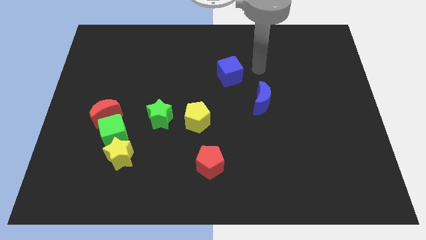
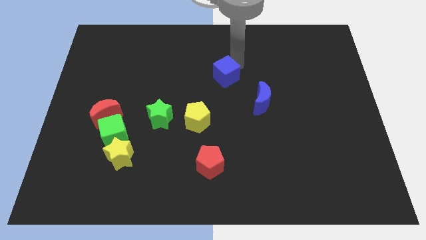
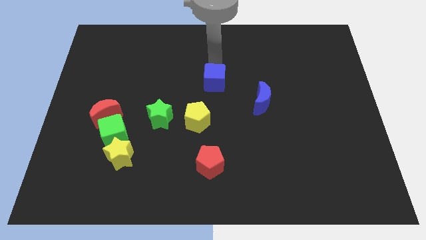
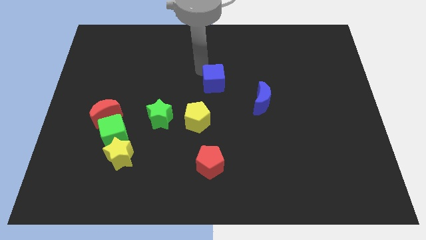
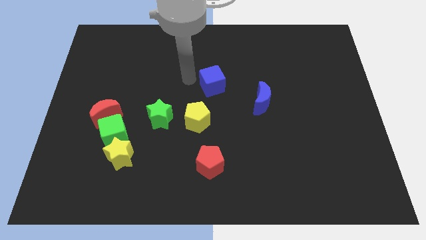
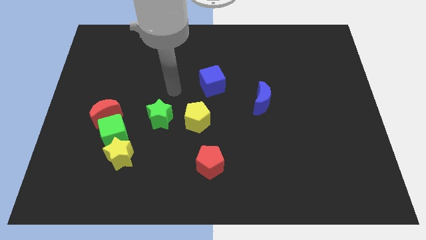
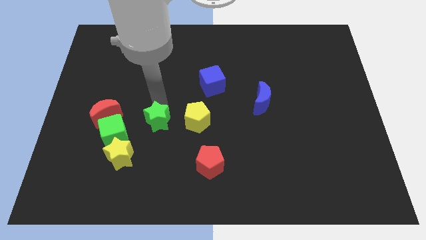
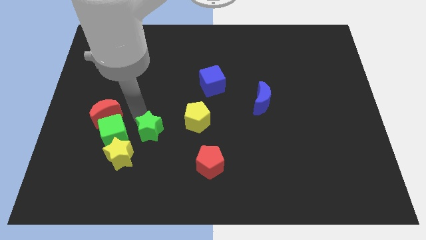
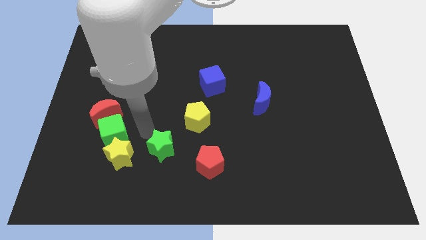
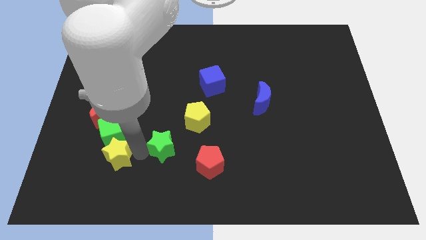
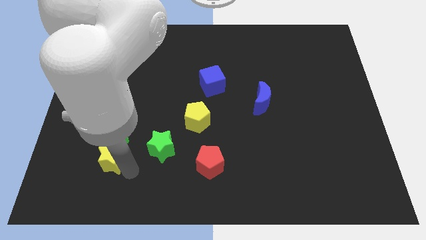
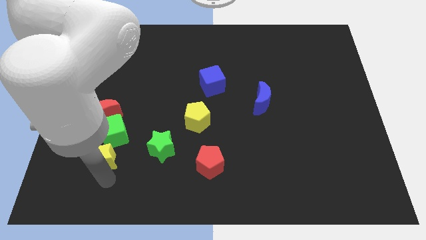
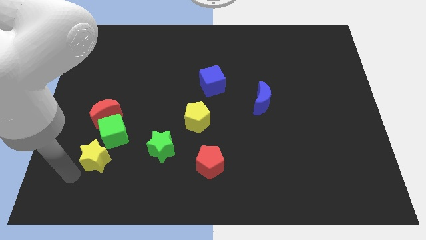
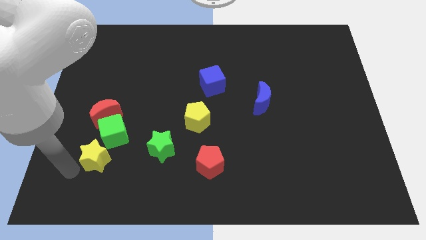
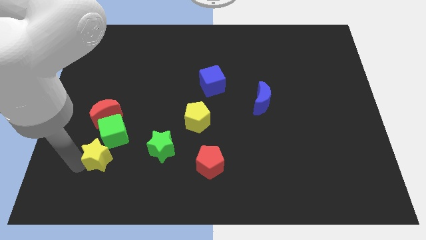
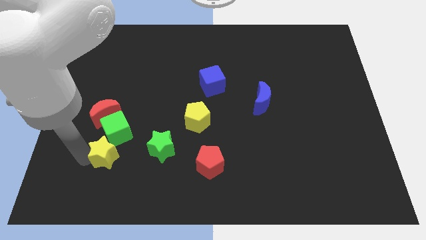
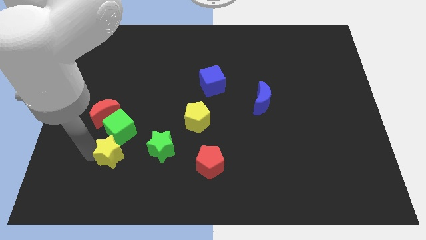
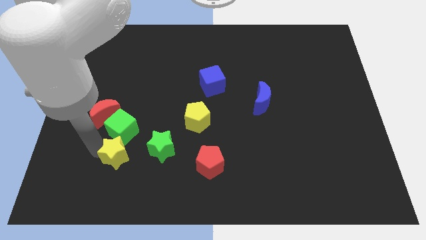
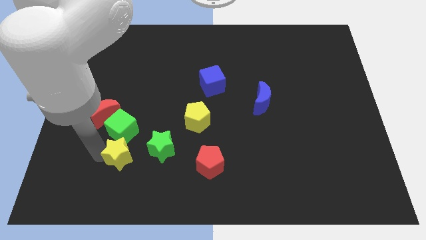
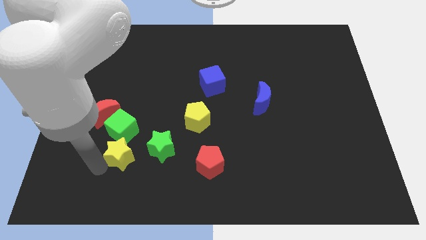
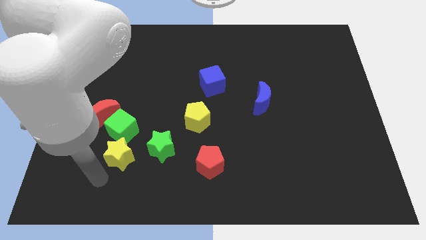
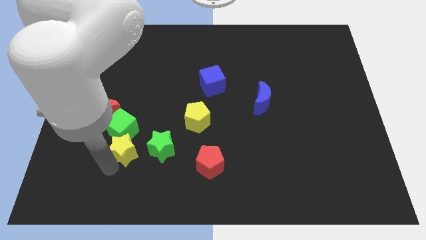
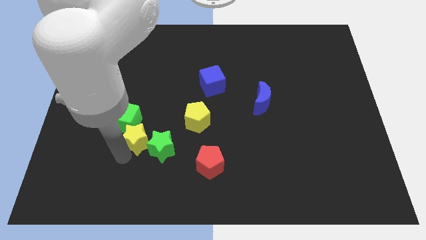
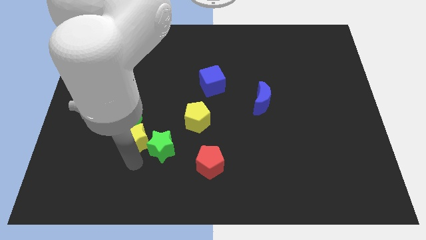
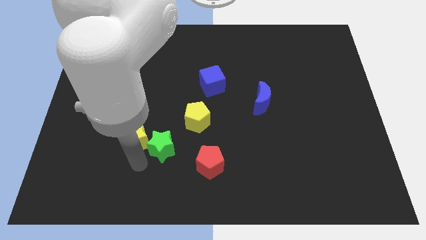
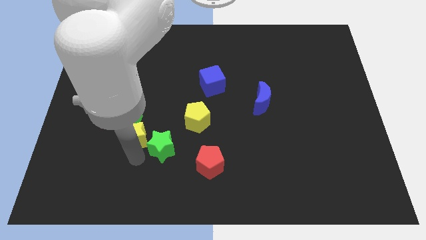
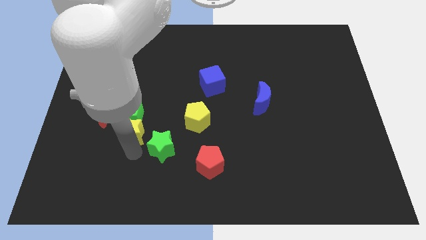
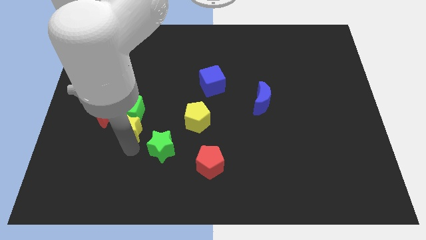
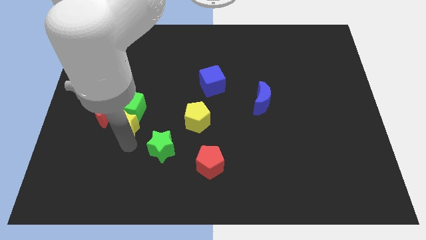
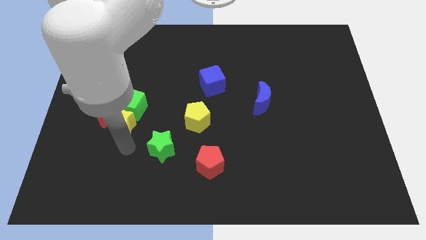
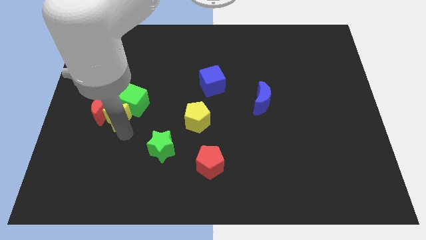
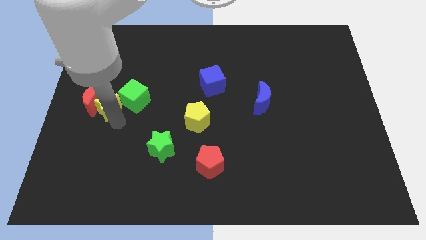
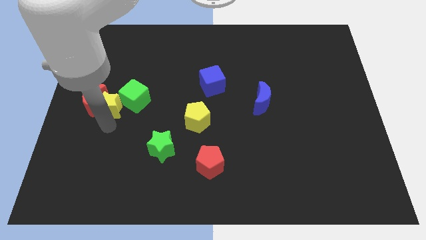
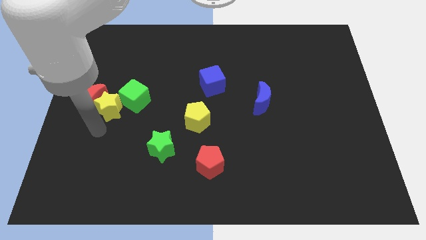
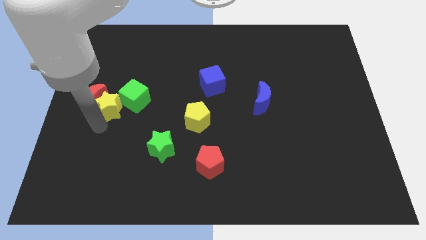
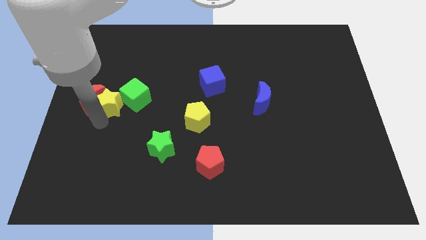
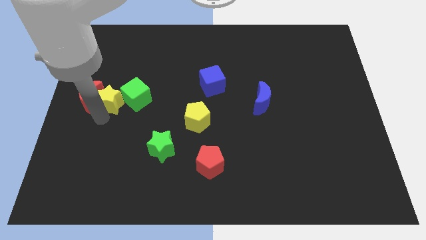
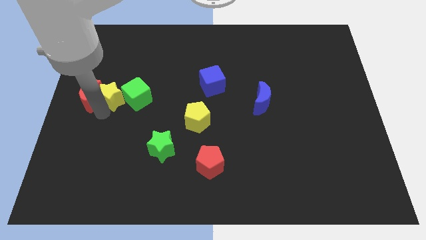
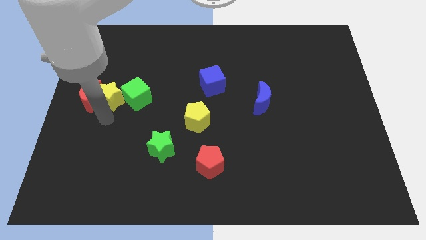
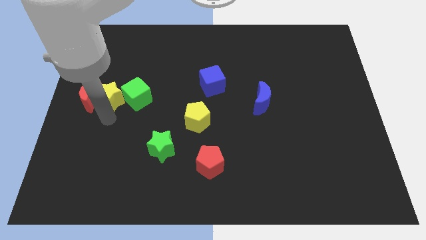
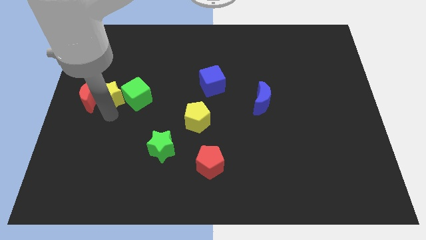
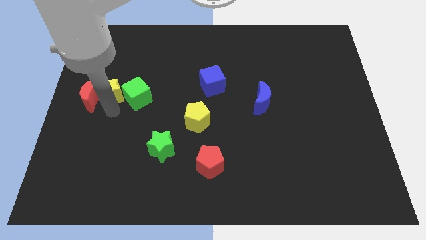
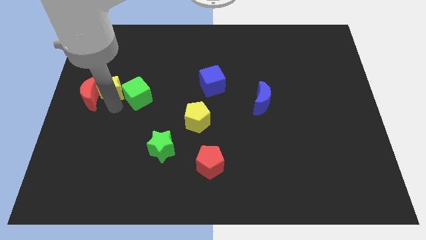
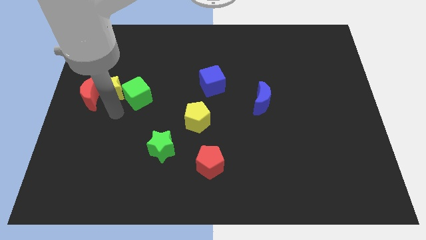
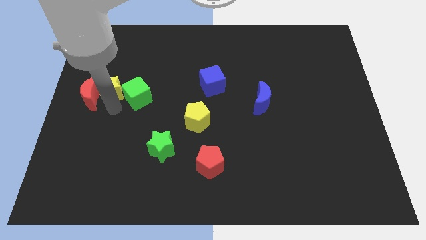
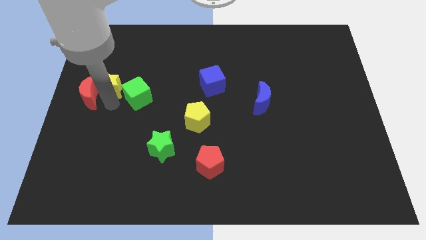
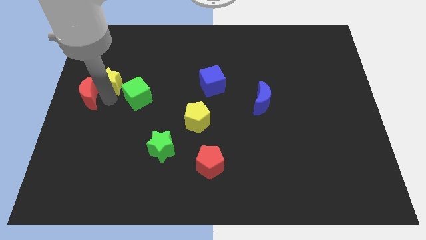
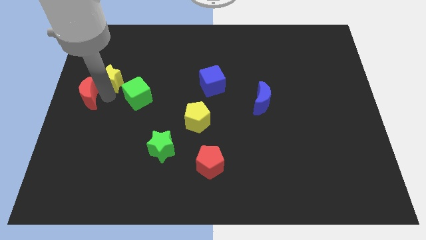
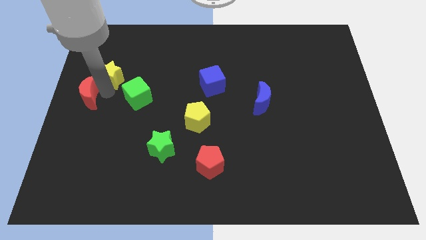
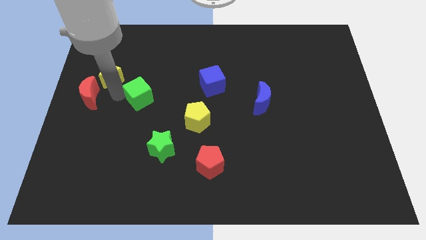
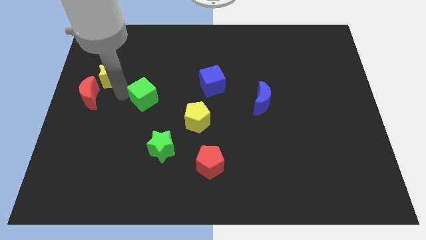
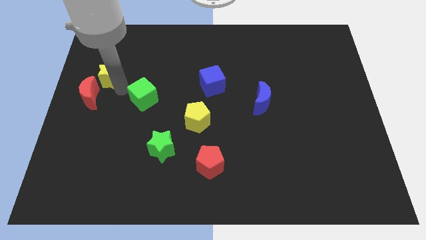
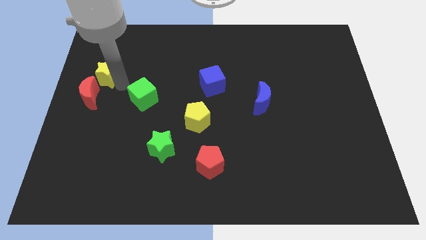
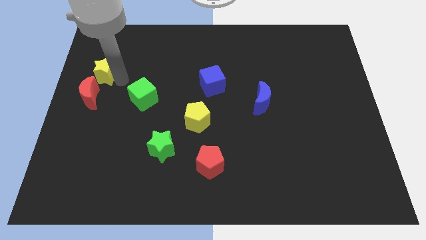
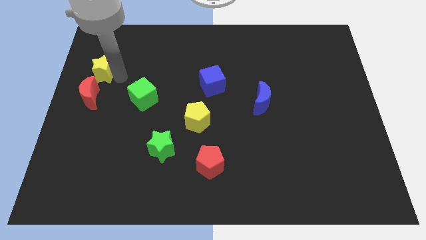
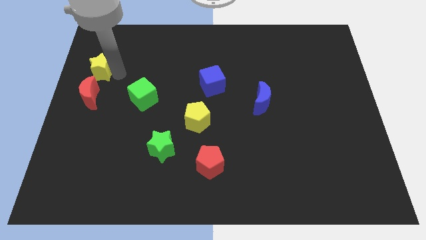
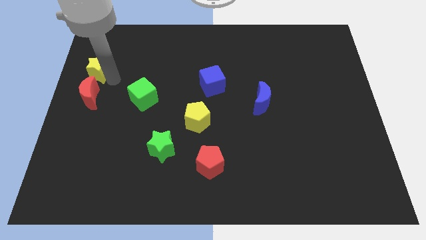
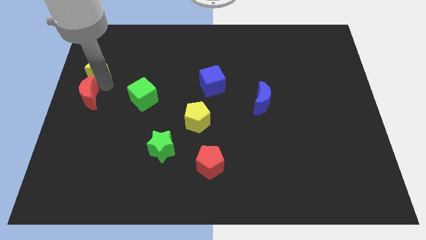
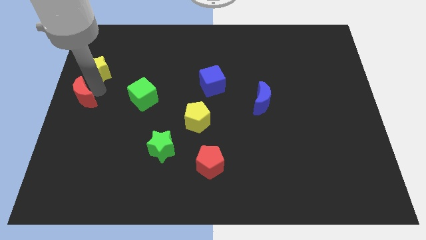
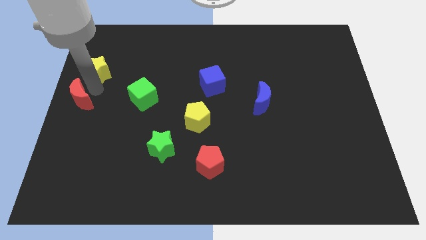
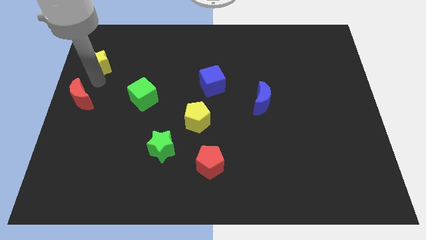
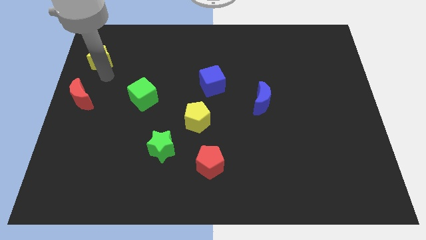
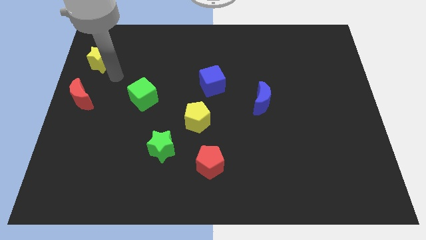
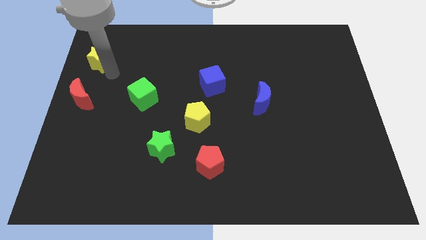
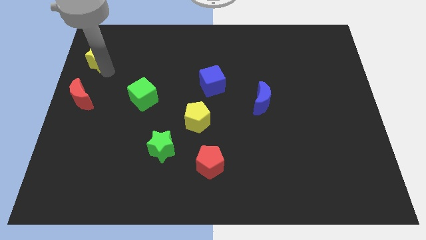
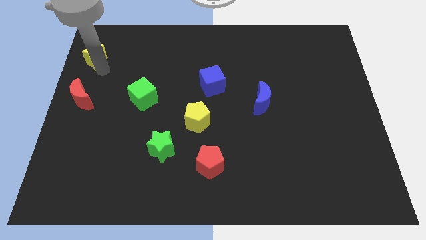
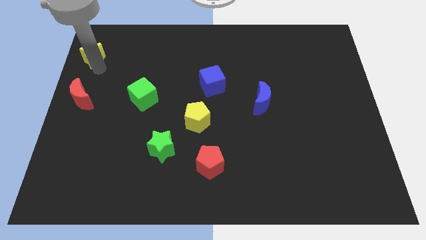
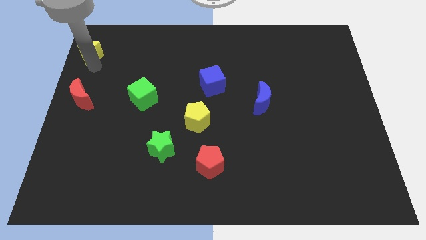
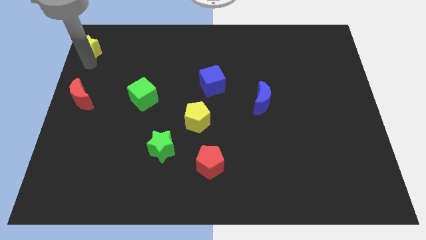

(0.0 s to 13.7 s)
push the yellow star to the top left of the board
